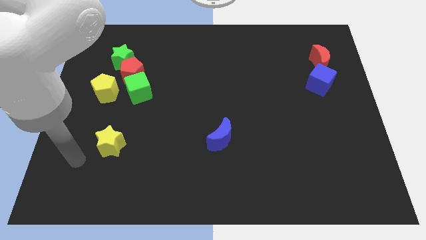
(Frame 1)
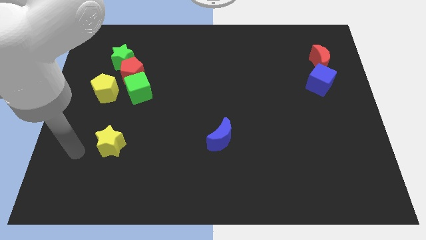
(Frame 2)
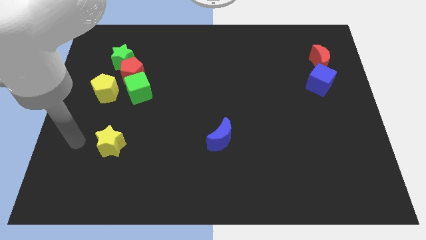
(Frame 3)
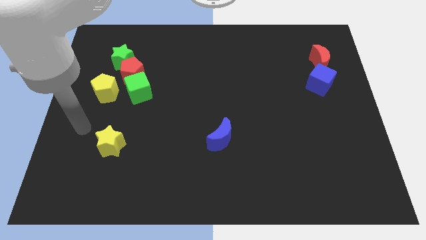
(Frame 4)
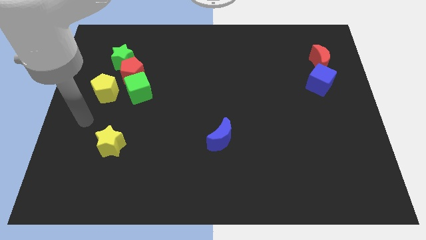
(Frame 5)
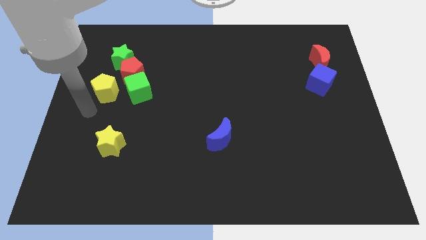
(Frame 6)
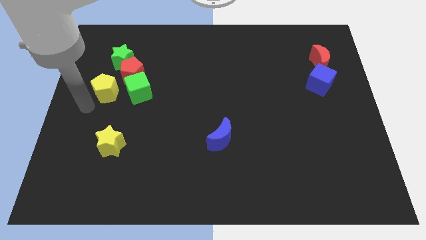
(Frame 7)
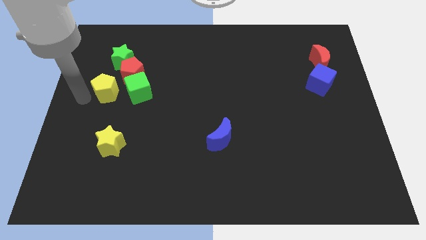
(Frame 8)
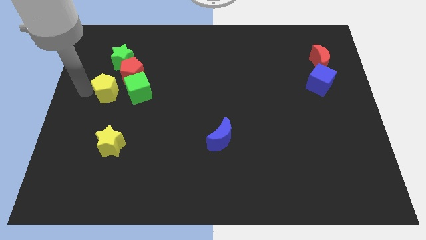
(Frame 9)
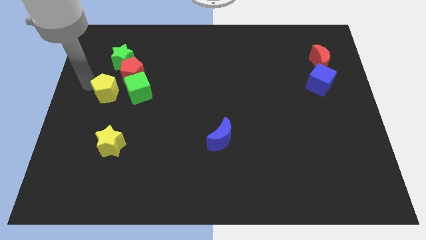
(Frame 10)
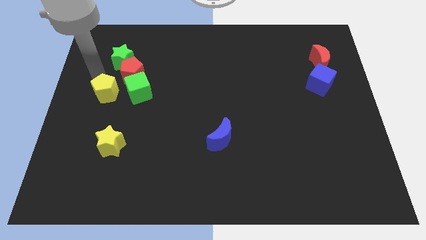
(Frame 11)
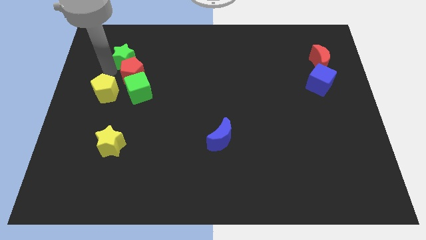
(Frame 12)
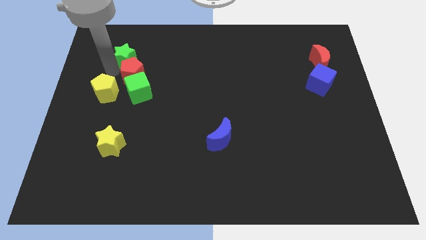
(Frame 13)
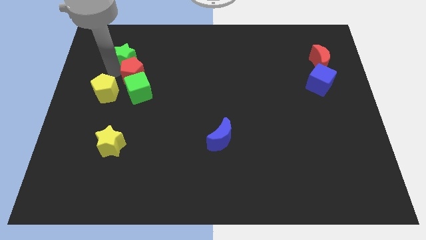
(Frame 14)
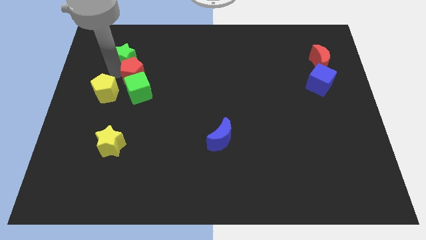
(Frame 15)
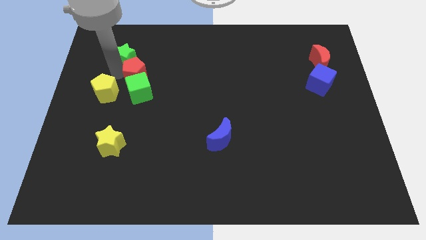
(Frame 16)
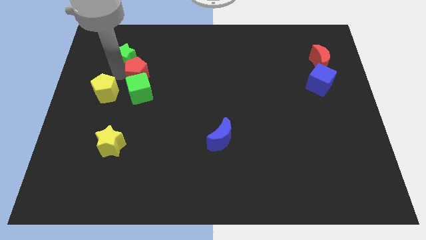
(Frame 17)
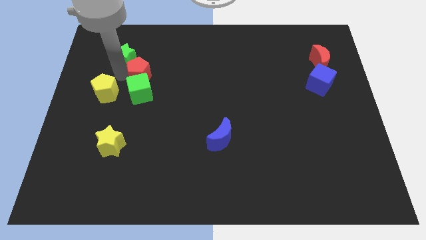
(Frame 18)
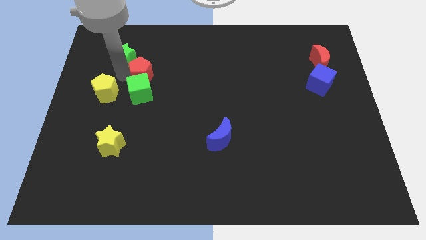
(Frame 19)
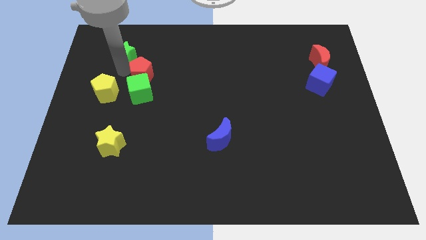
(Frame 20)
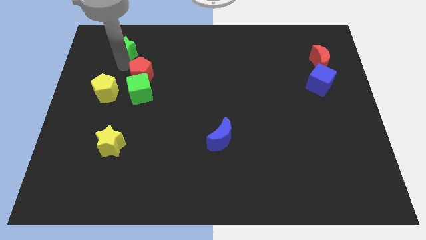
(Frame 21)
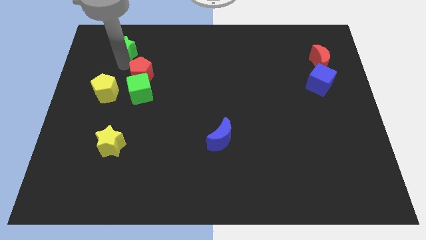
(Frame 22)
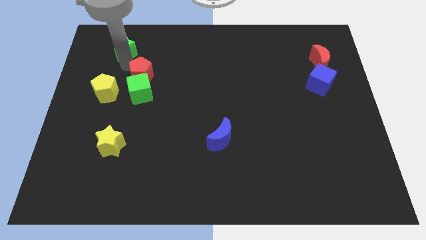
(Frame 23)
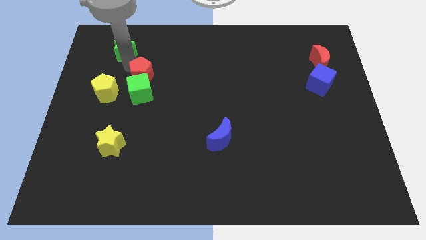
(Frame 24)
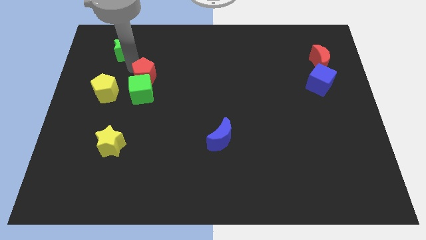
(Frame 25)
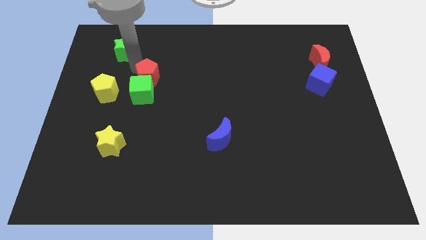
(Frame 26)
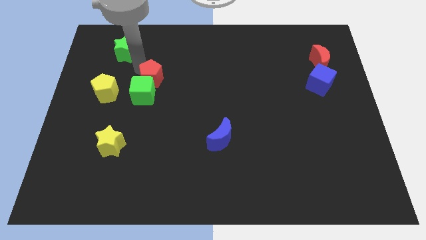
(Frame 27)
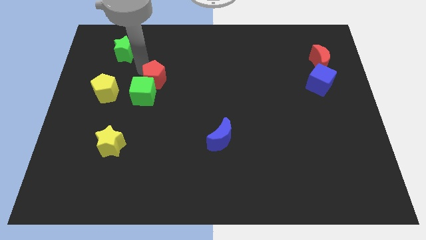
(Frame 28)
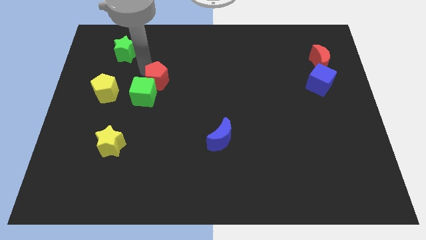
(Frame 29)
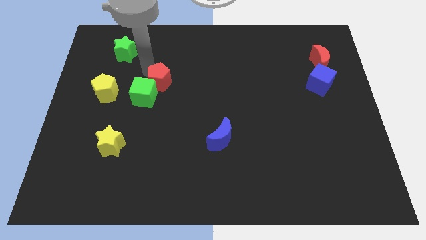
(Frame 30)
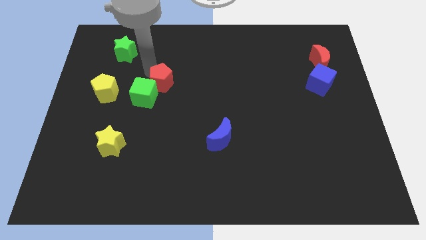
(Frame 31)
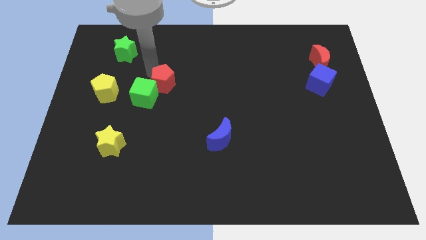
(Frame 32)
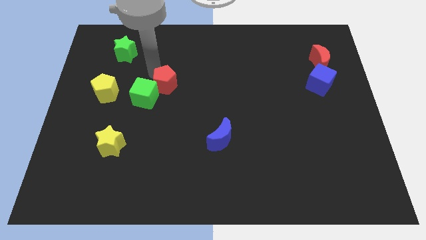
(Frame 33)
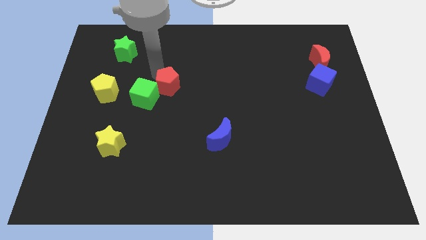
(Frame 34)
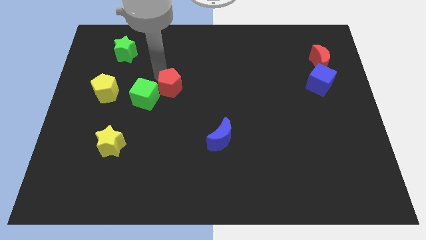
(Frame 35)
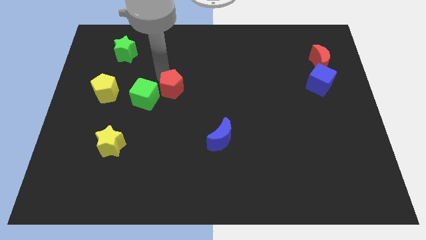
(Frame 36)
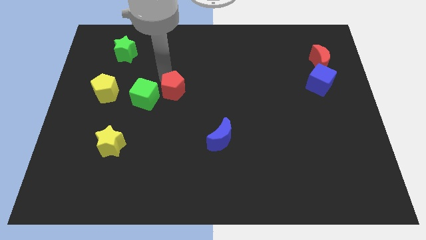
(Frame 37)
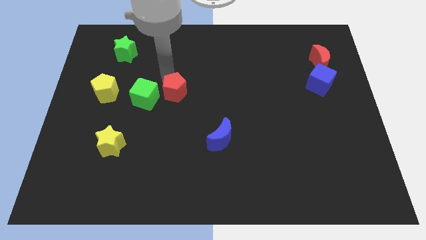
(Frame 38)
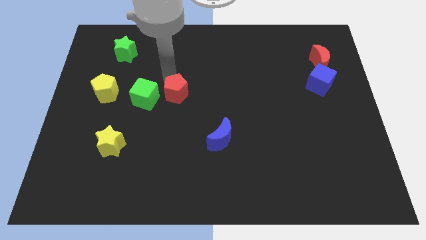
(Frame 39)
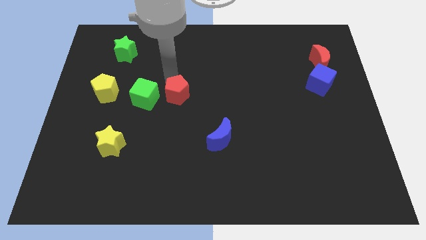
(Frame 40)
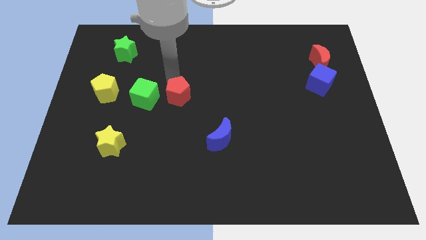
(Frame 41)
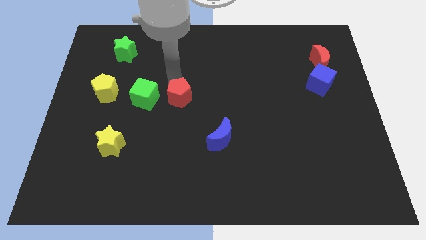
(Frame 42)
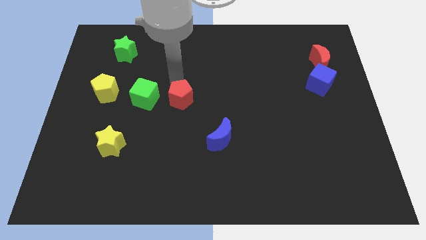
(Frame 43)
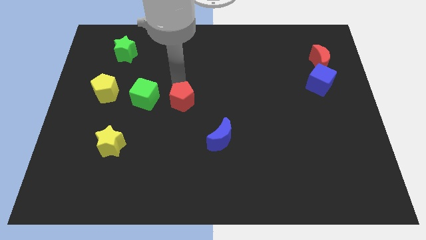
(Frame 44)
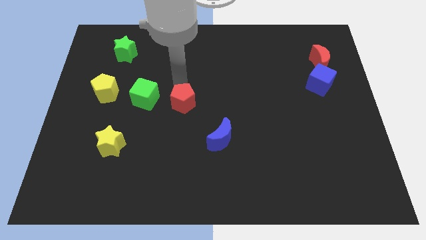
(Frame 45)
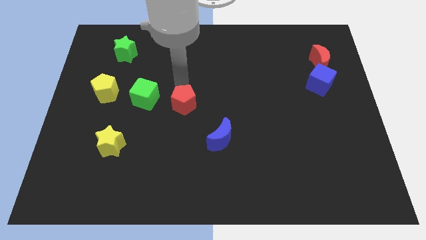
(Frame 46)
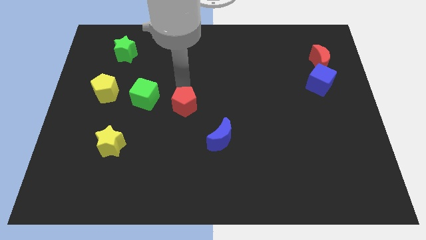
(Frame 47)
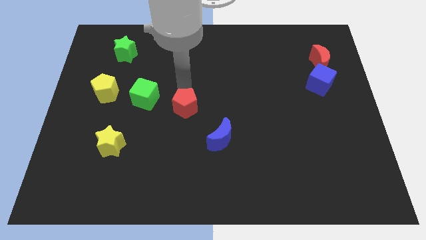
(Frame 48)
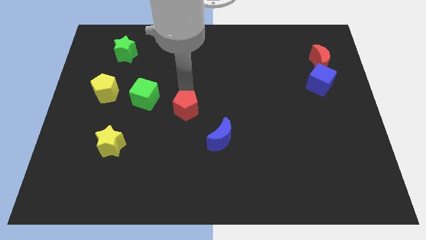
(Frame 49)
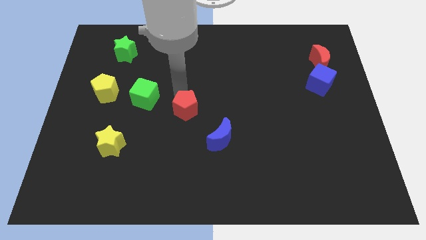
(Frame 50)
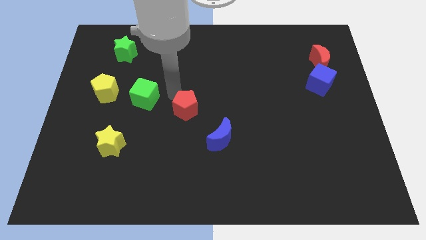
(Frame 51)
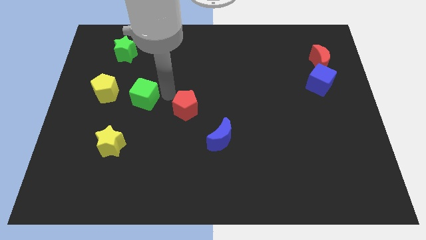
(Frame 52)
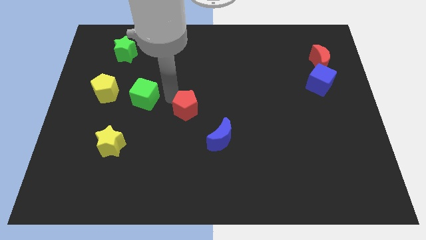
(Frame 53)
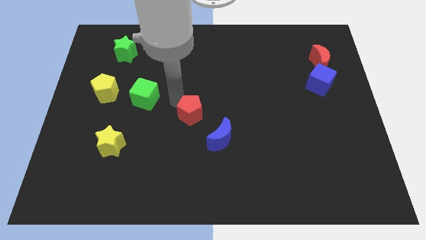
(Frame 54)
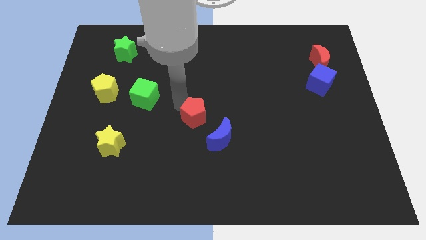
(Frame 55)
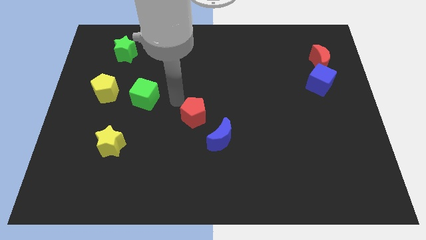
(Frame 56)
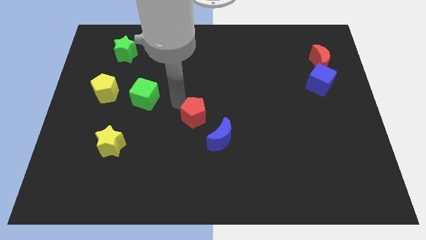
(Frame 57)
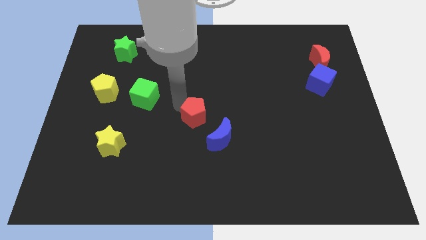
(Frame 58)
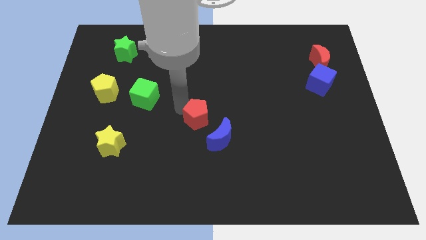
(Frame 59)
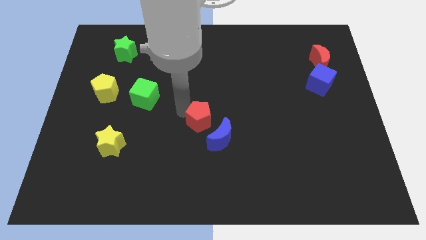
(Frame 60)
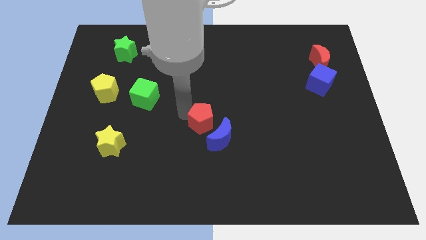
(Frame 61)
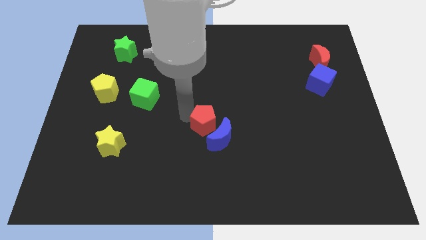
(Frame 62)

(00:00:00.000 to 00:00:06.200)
move the red pentagon next to the blue moon

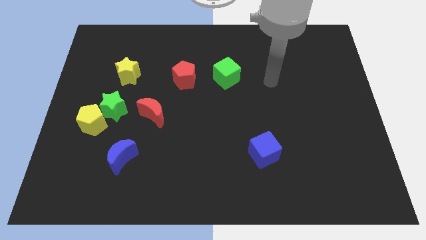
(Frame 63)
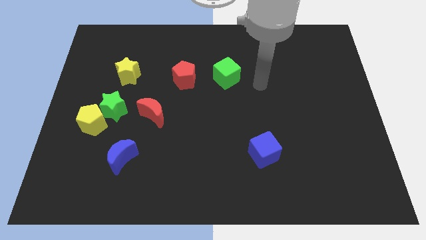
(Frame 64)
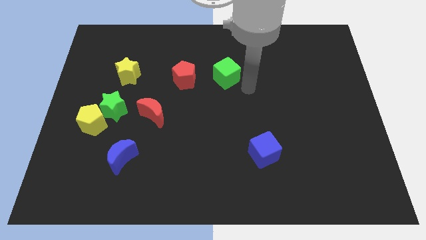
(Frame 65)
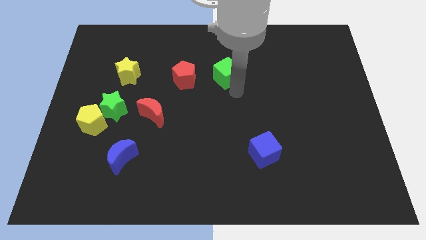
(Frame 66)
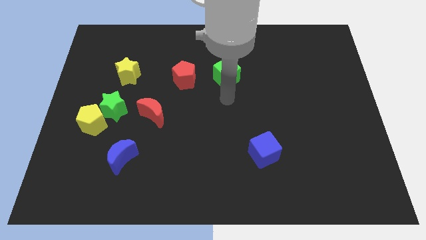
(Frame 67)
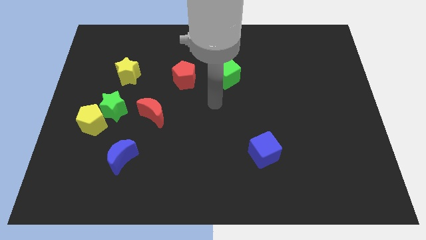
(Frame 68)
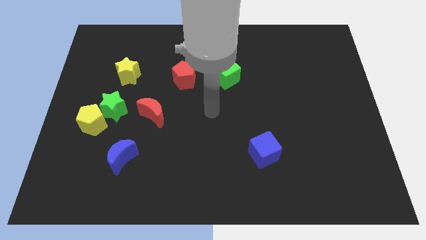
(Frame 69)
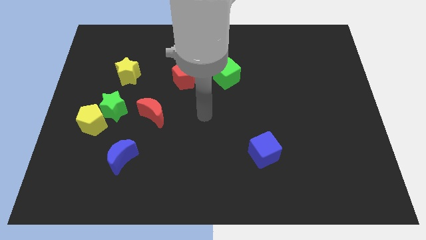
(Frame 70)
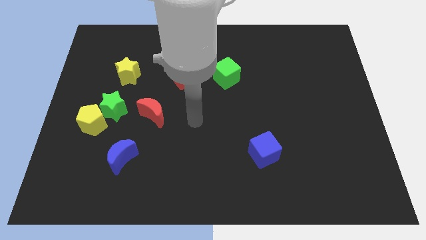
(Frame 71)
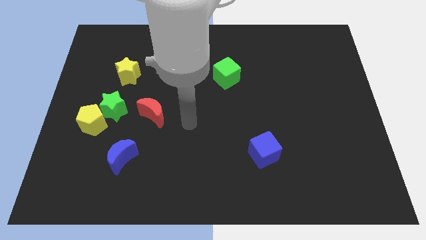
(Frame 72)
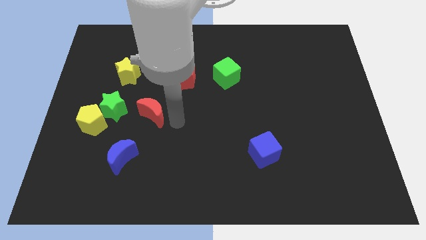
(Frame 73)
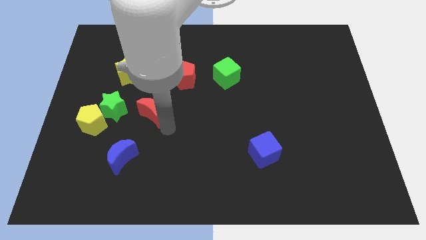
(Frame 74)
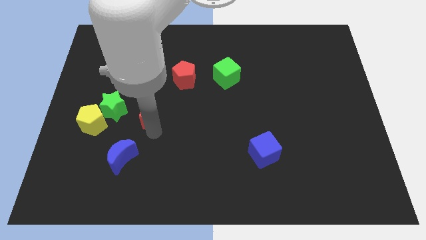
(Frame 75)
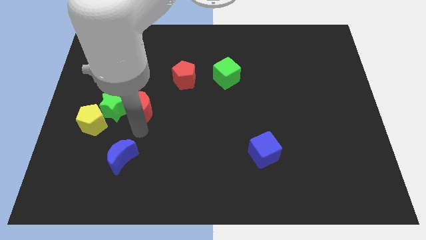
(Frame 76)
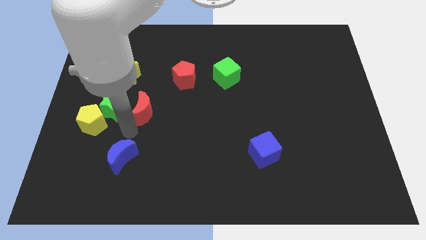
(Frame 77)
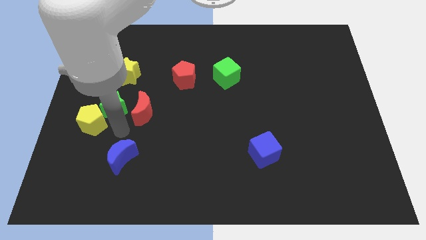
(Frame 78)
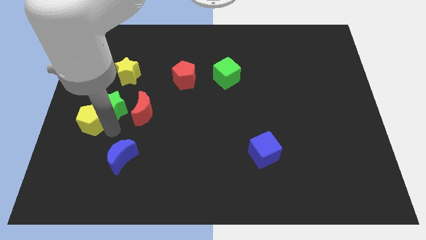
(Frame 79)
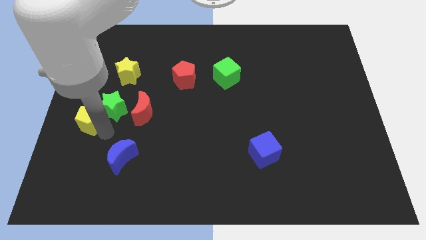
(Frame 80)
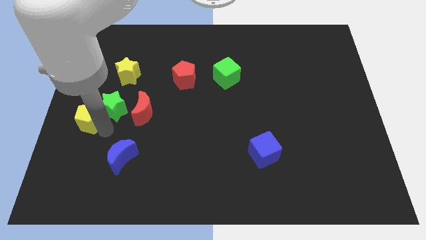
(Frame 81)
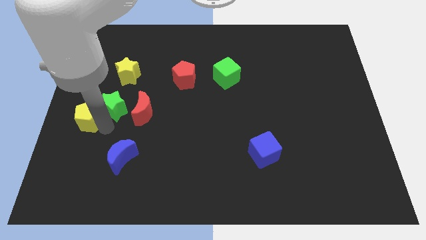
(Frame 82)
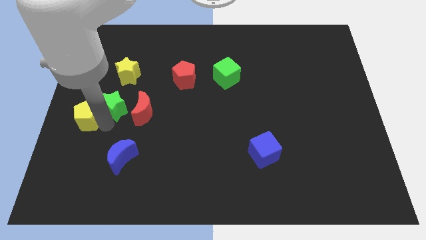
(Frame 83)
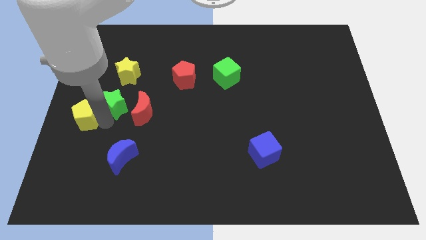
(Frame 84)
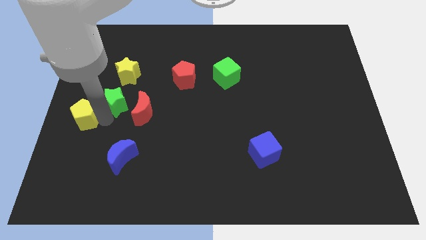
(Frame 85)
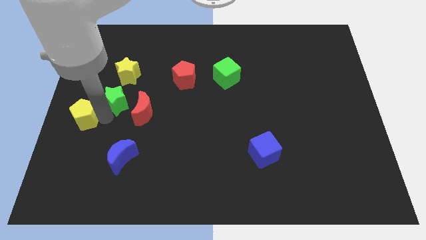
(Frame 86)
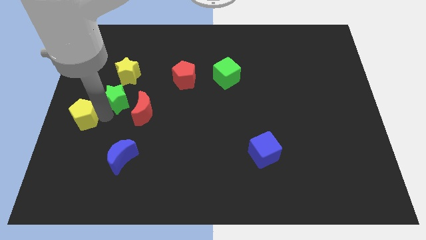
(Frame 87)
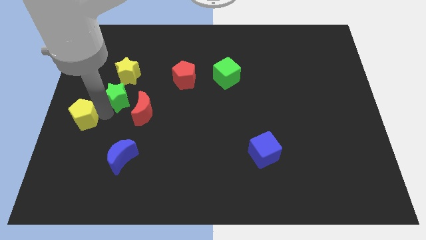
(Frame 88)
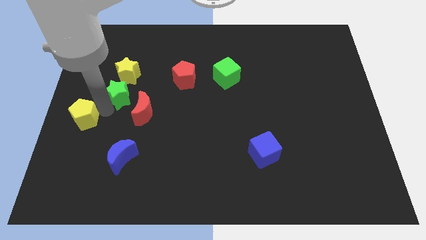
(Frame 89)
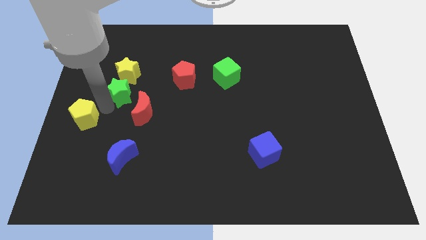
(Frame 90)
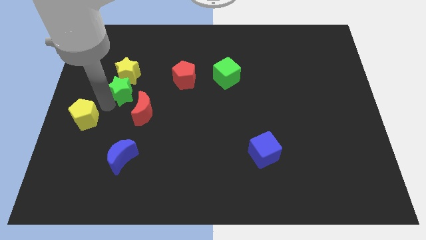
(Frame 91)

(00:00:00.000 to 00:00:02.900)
put the green star to the yellow star
